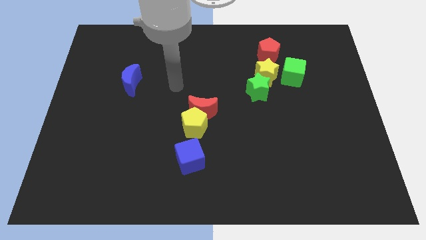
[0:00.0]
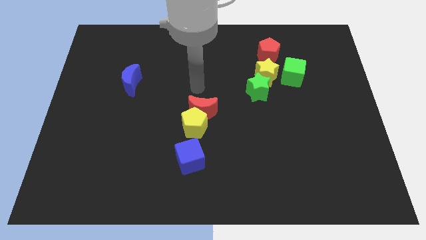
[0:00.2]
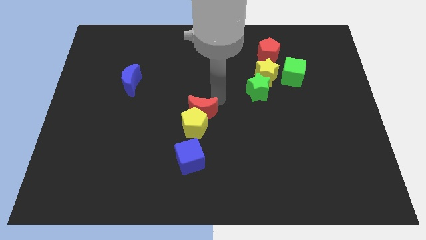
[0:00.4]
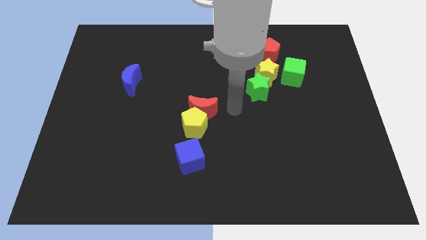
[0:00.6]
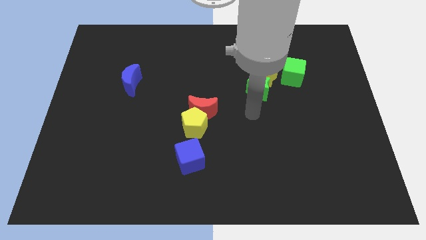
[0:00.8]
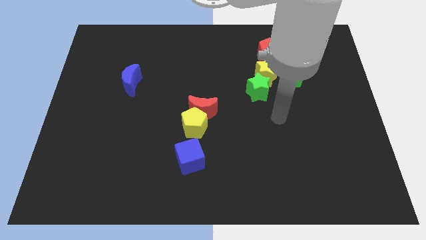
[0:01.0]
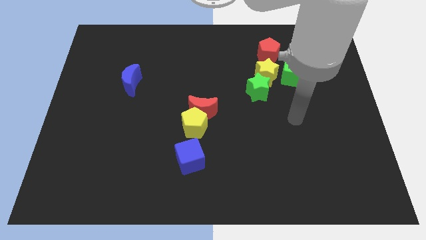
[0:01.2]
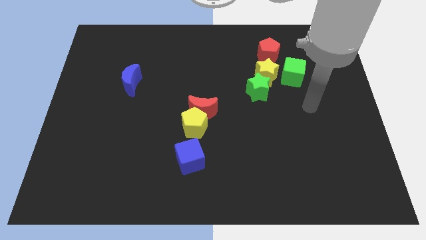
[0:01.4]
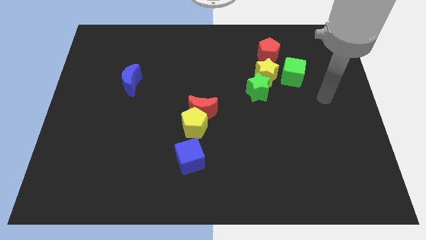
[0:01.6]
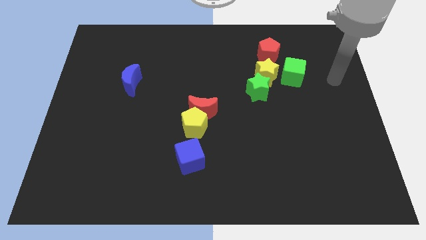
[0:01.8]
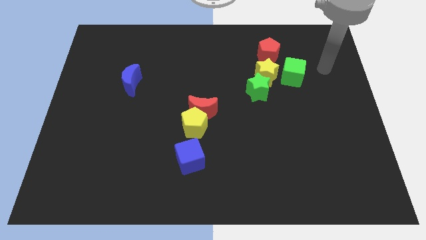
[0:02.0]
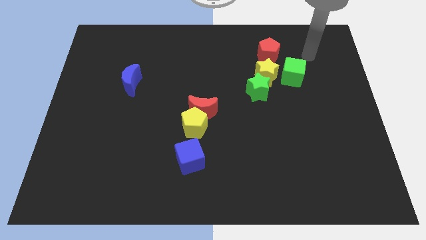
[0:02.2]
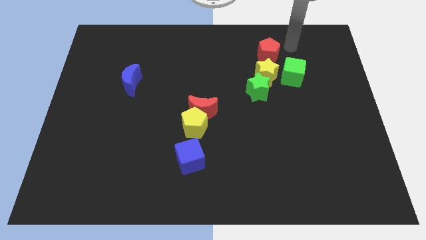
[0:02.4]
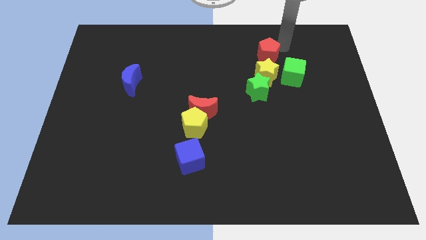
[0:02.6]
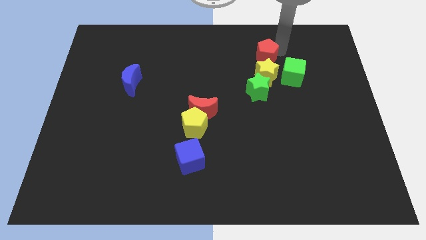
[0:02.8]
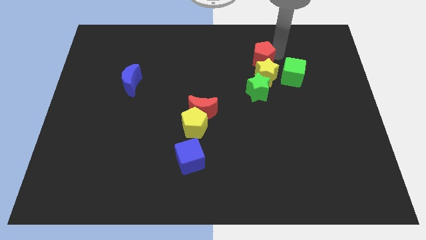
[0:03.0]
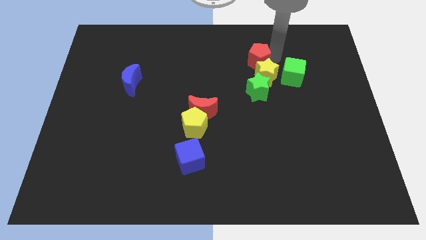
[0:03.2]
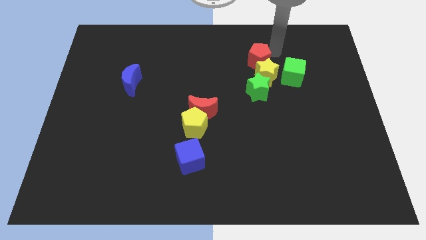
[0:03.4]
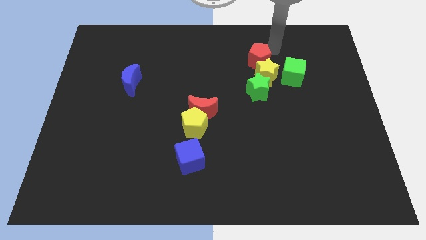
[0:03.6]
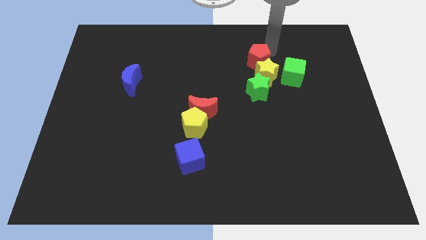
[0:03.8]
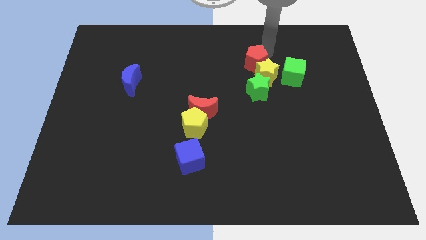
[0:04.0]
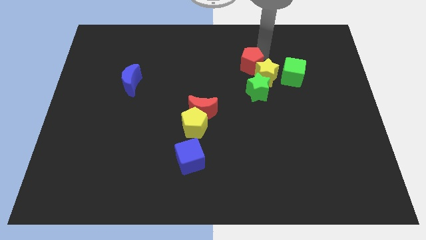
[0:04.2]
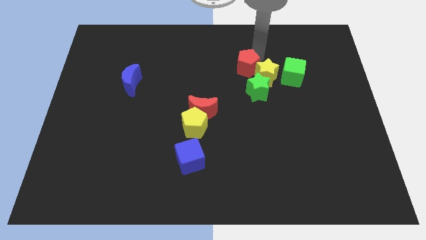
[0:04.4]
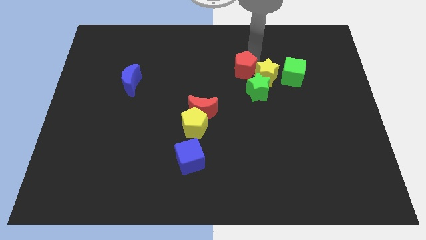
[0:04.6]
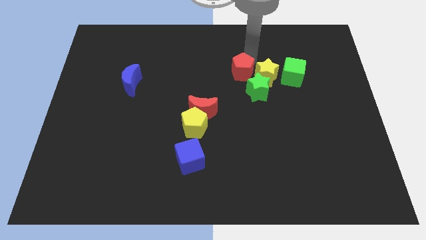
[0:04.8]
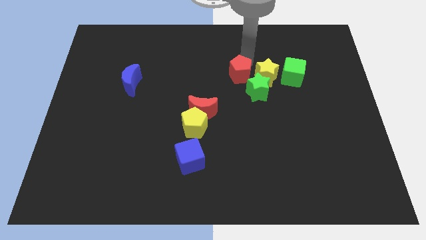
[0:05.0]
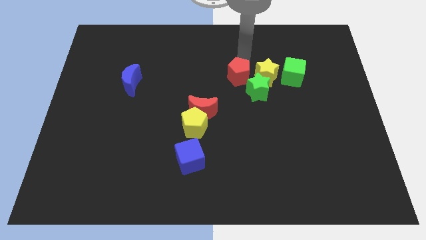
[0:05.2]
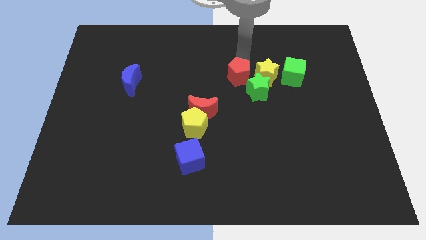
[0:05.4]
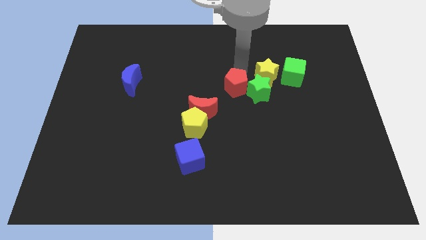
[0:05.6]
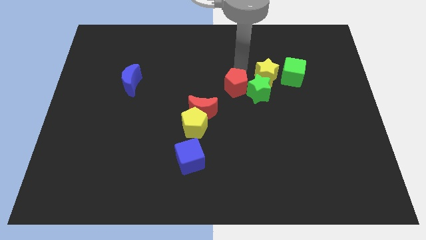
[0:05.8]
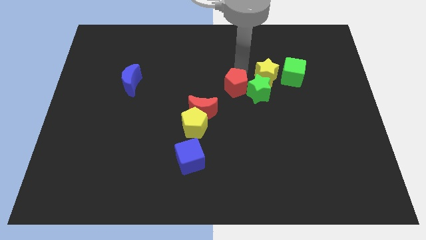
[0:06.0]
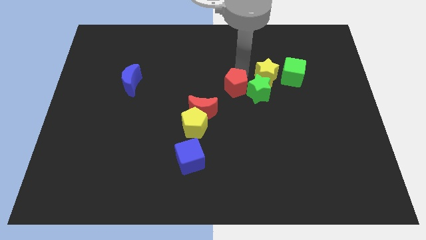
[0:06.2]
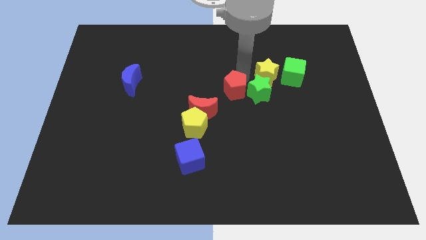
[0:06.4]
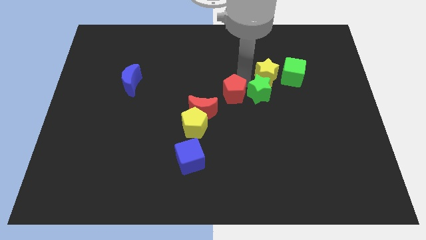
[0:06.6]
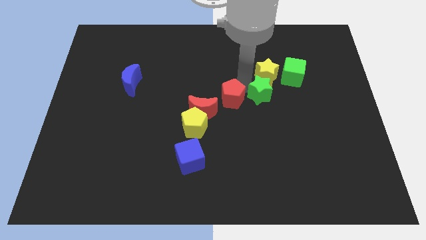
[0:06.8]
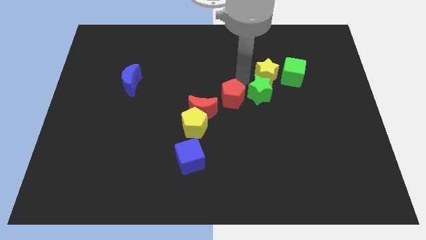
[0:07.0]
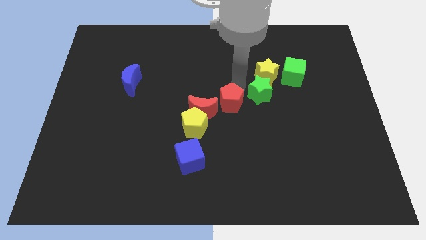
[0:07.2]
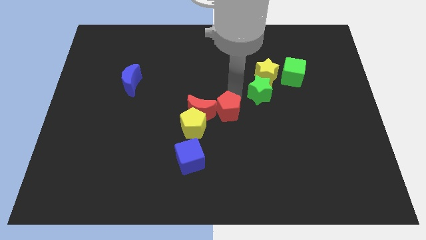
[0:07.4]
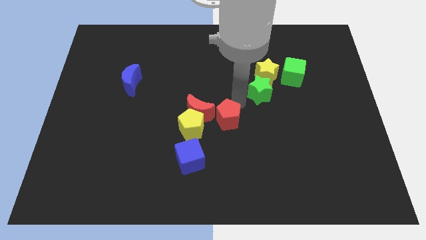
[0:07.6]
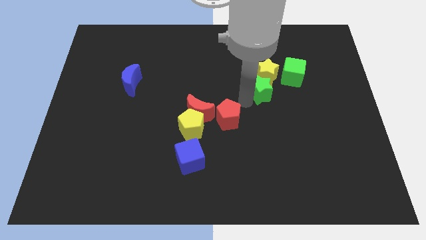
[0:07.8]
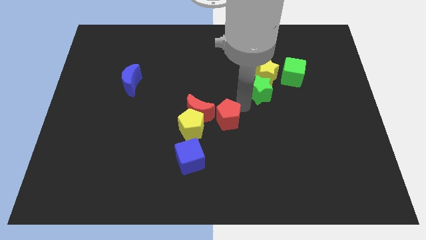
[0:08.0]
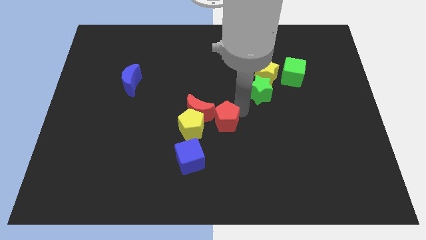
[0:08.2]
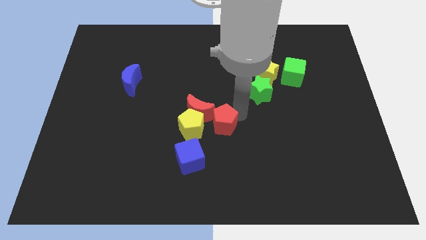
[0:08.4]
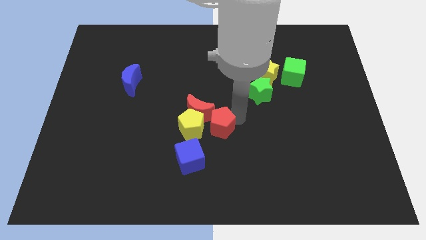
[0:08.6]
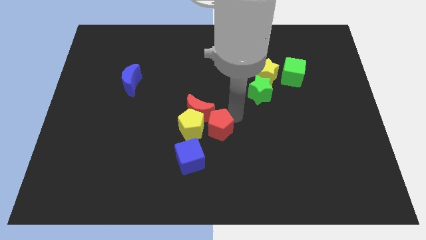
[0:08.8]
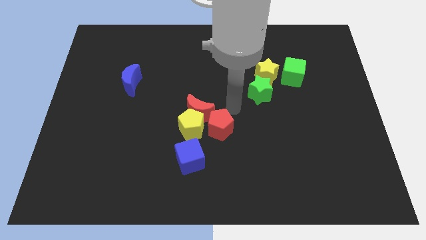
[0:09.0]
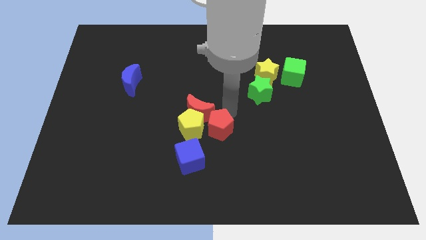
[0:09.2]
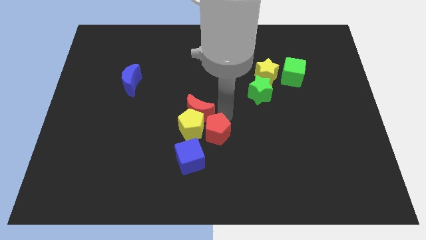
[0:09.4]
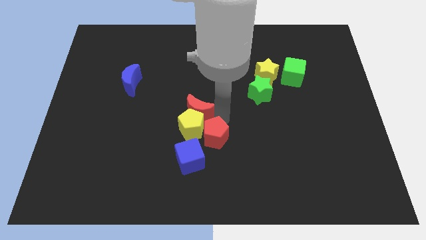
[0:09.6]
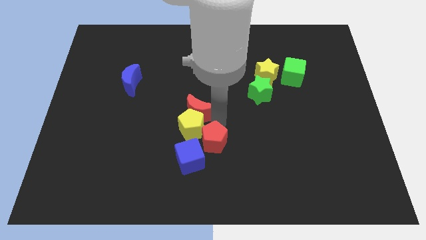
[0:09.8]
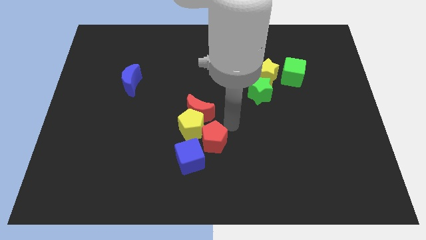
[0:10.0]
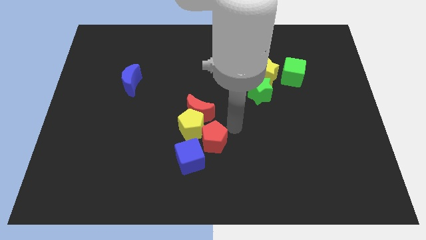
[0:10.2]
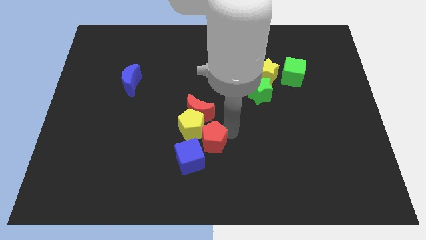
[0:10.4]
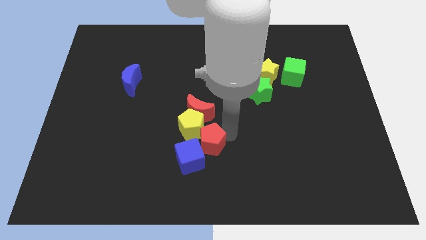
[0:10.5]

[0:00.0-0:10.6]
put the red pentagon towards the blue cube

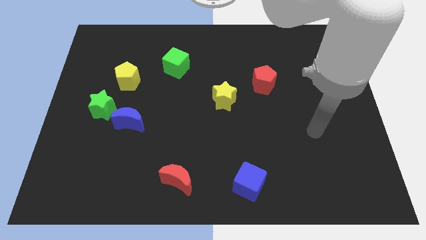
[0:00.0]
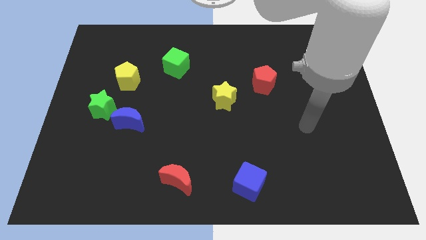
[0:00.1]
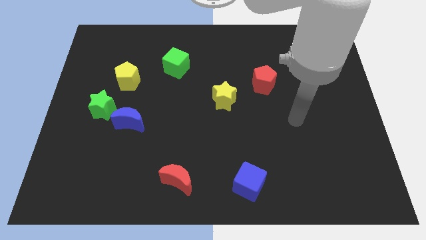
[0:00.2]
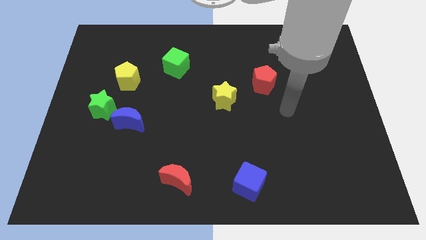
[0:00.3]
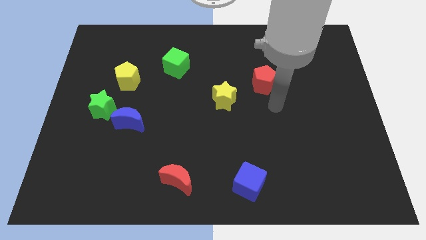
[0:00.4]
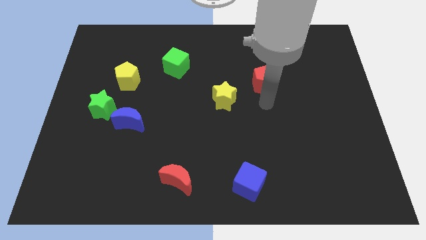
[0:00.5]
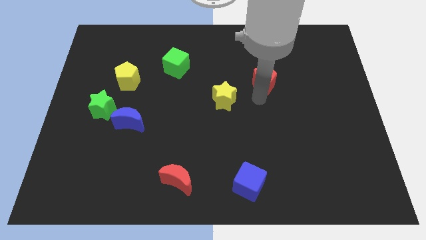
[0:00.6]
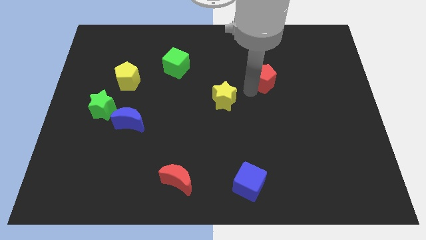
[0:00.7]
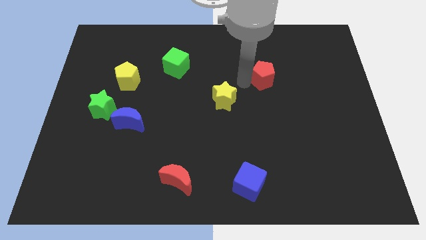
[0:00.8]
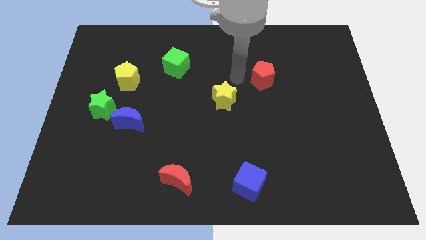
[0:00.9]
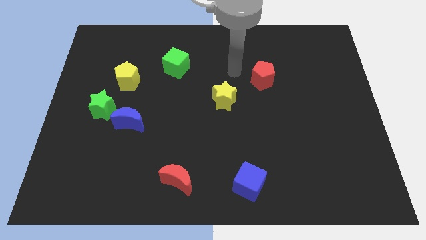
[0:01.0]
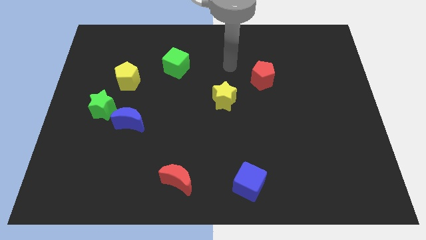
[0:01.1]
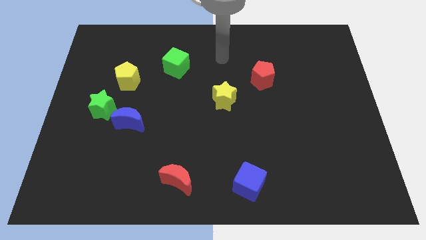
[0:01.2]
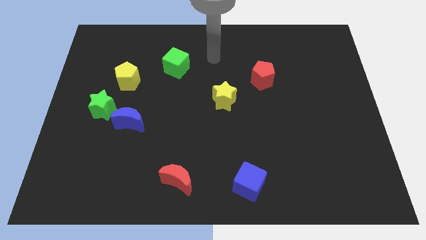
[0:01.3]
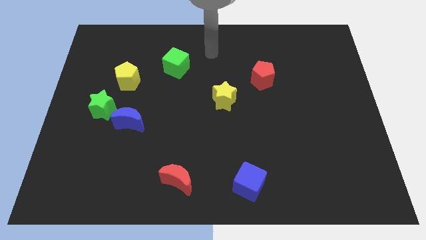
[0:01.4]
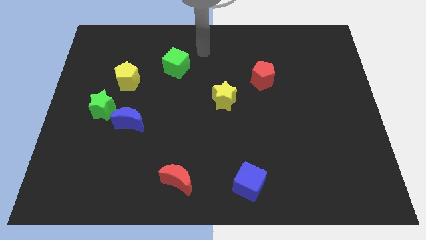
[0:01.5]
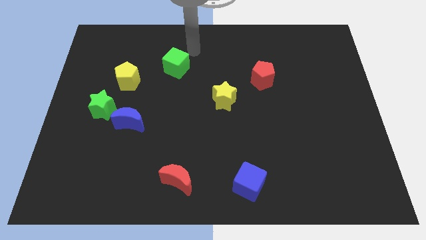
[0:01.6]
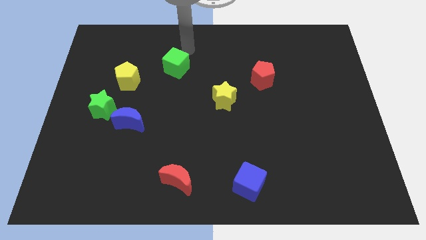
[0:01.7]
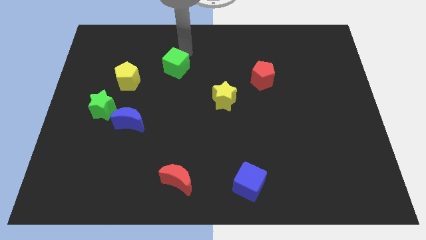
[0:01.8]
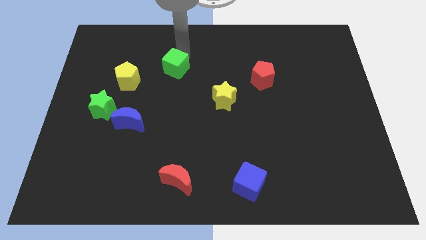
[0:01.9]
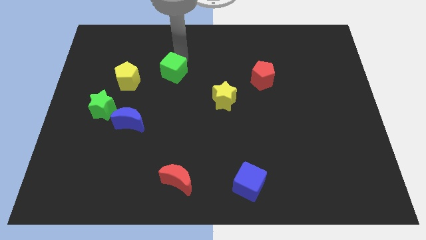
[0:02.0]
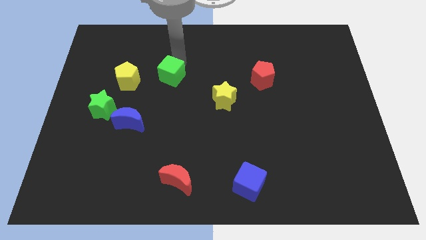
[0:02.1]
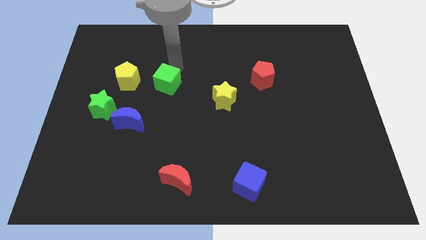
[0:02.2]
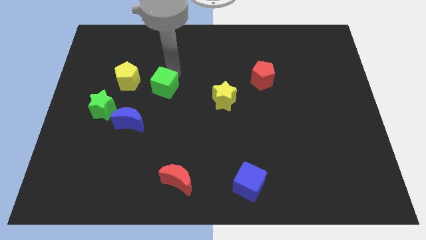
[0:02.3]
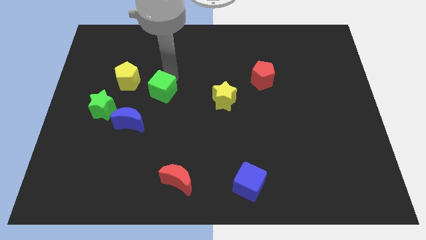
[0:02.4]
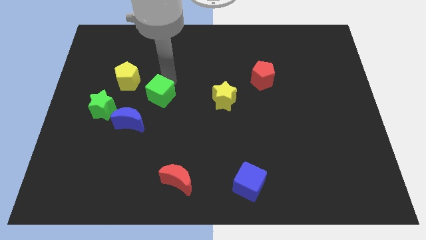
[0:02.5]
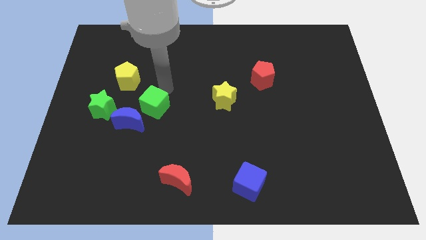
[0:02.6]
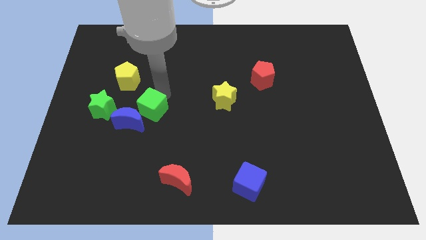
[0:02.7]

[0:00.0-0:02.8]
put the green cube towards the blue moon
